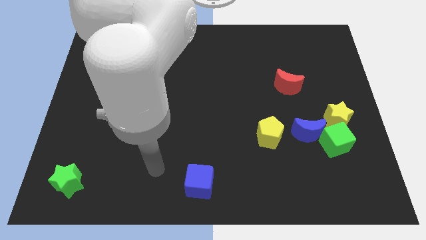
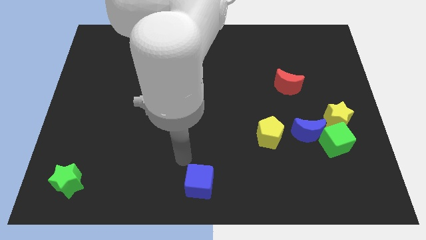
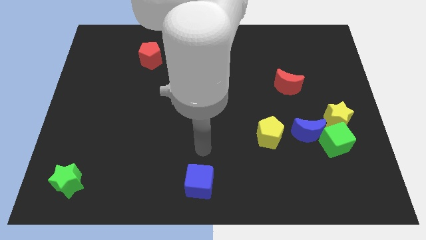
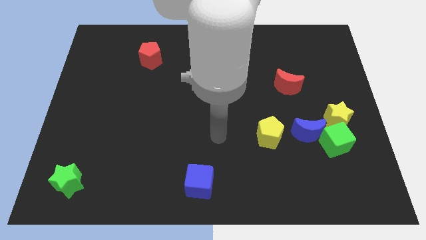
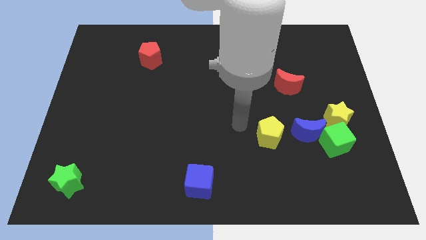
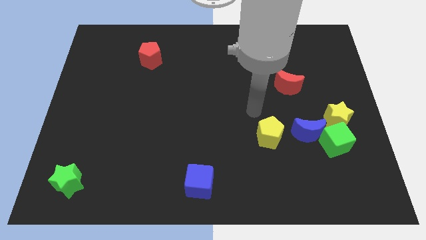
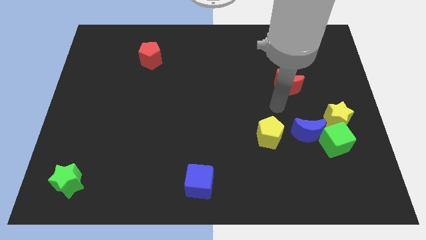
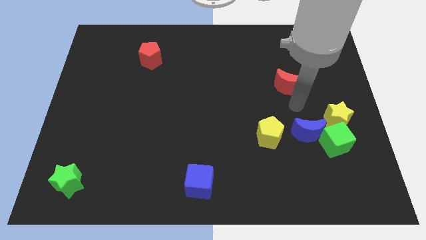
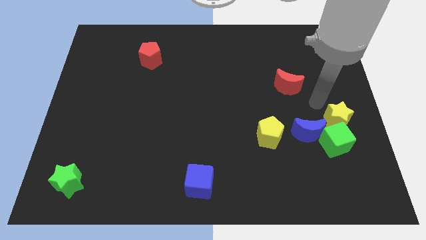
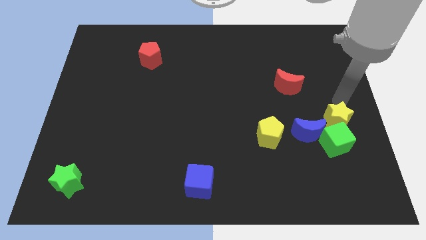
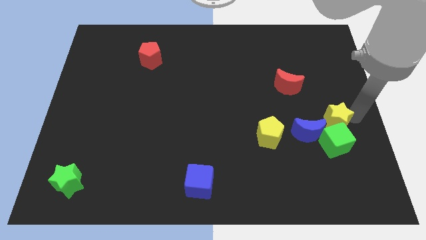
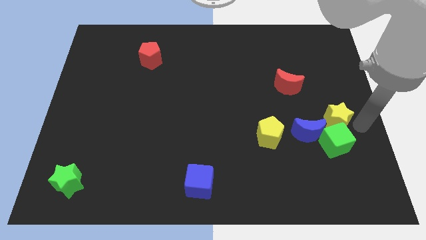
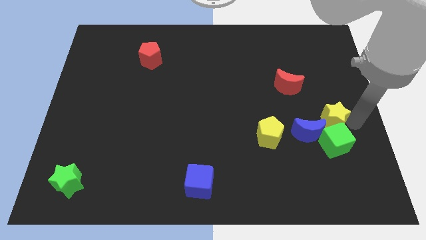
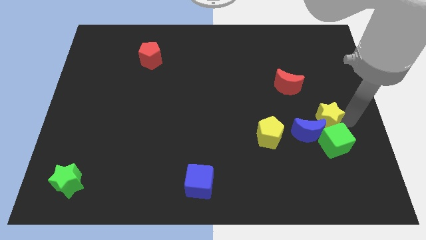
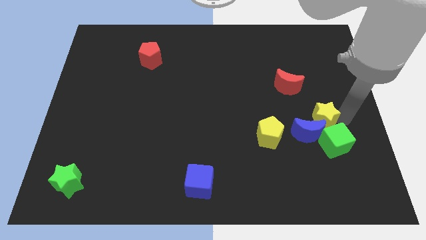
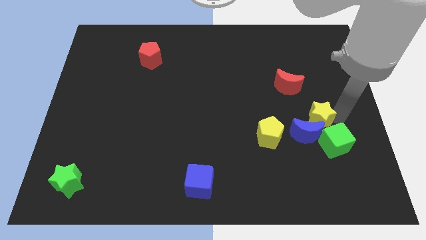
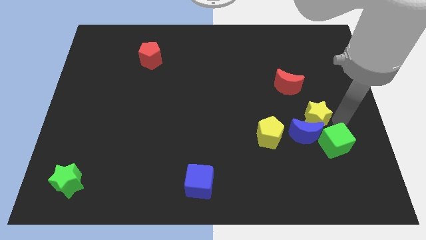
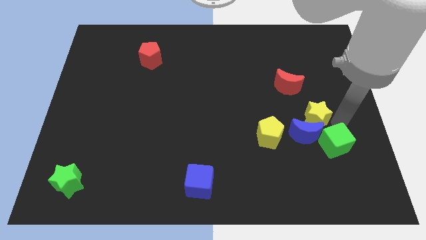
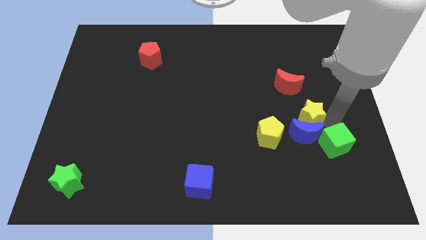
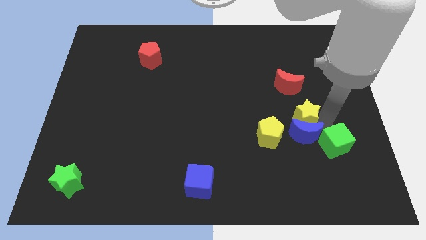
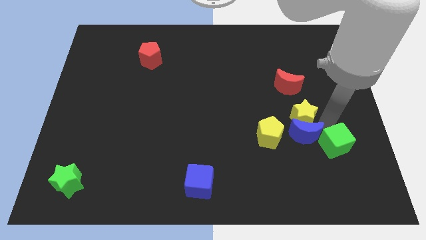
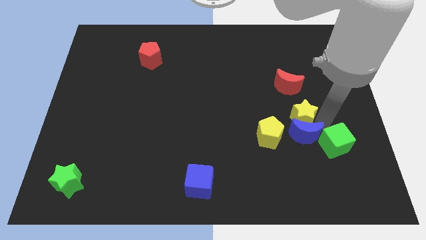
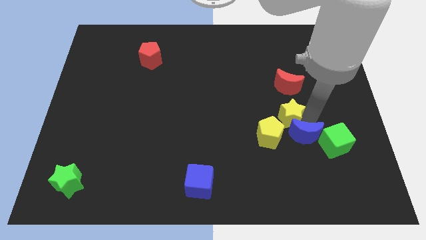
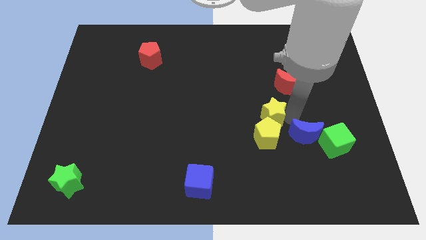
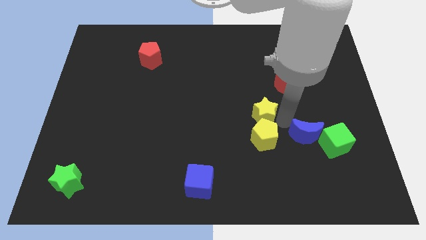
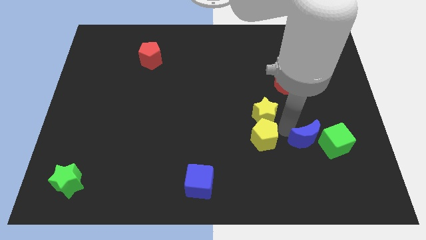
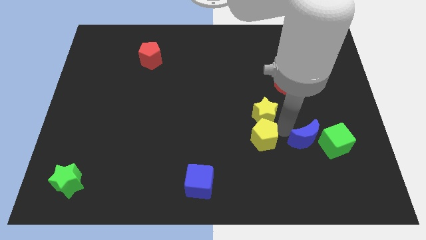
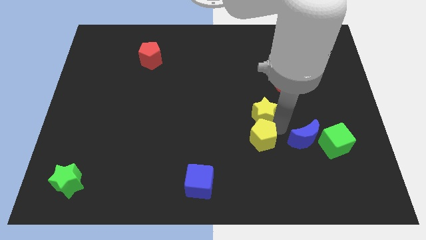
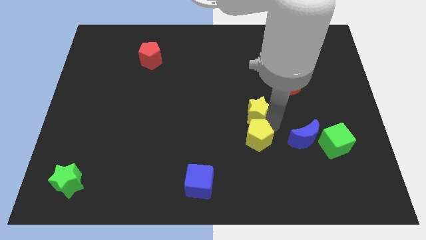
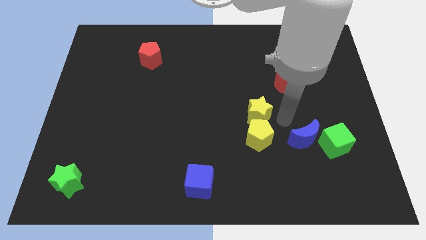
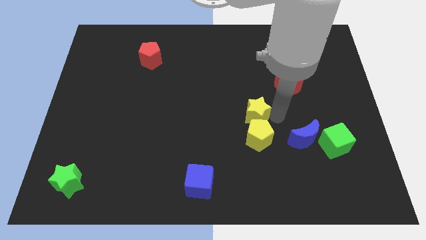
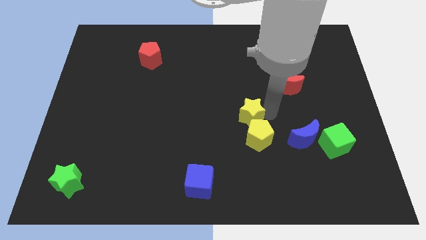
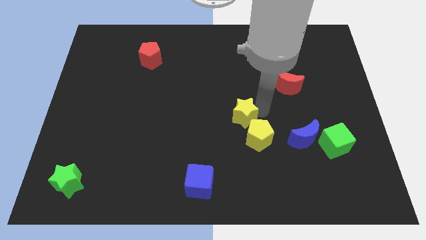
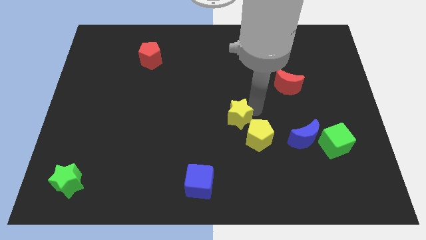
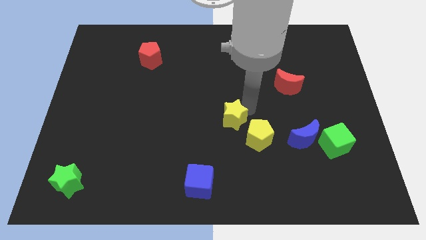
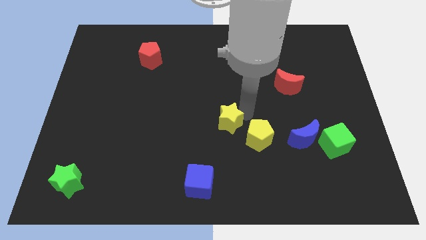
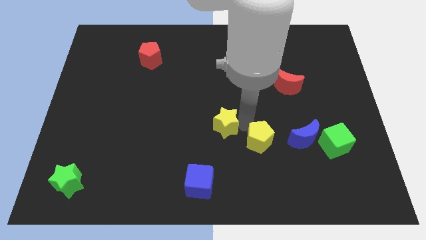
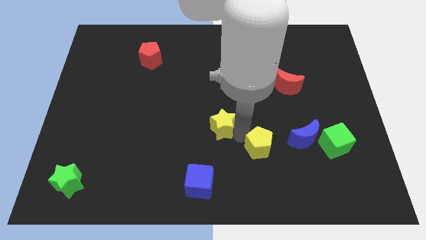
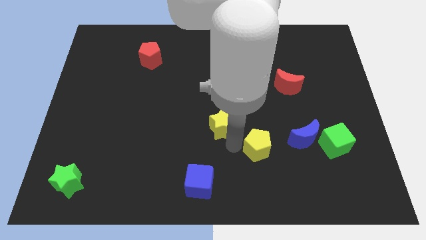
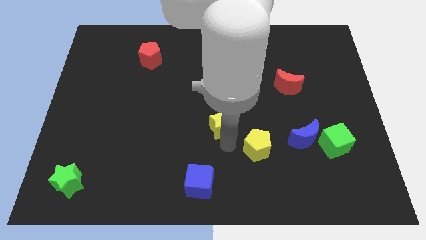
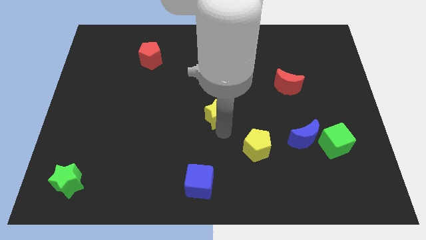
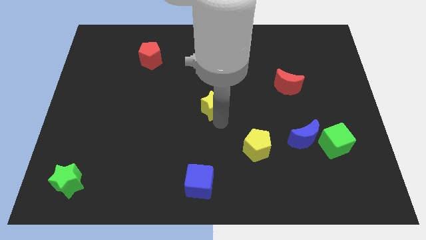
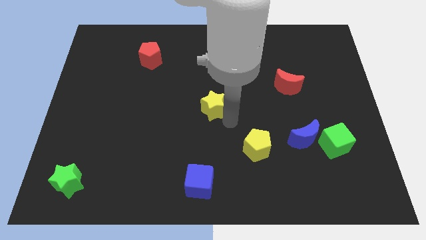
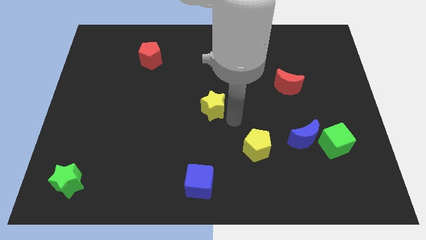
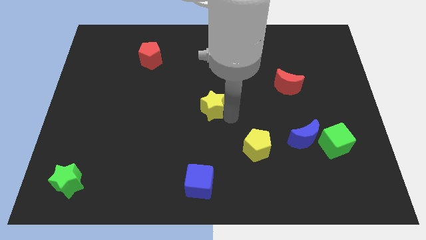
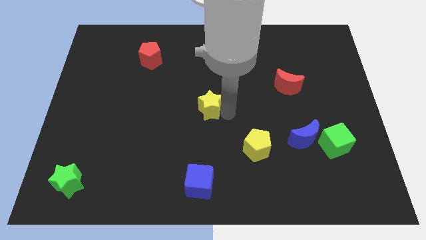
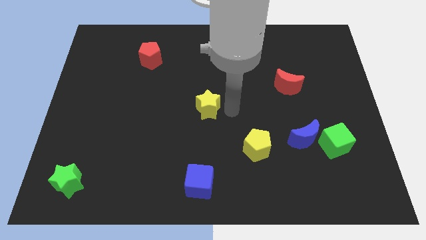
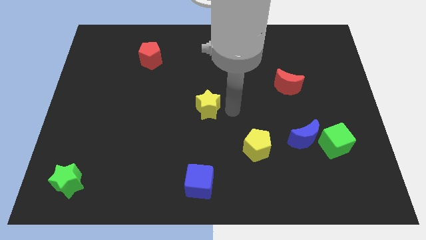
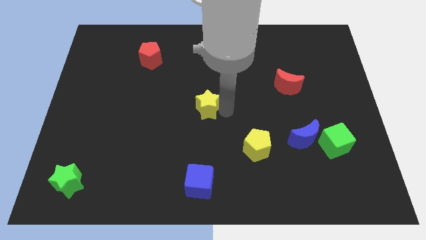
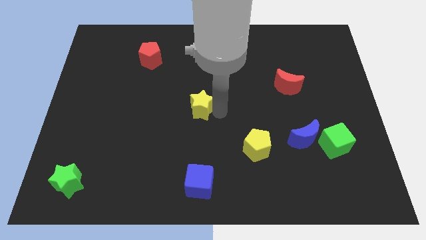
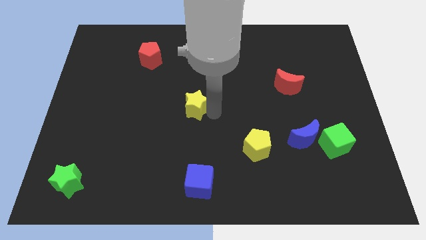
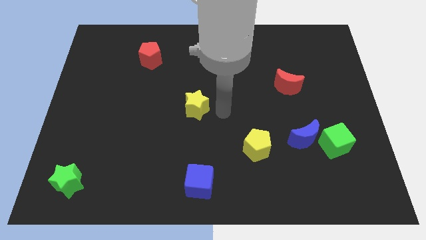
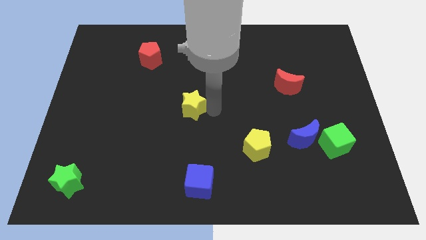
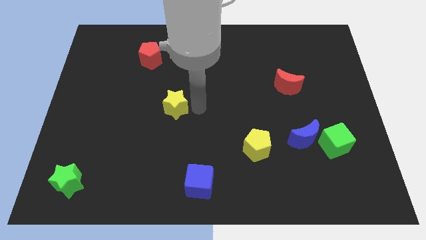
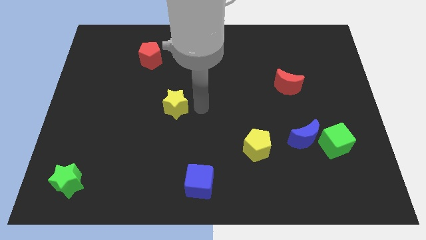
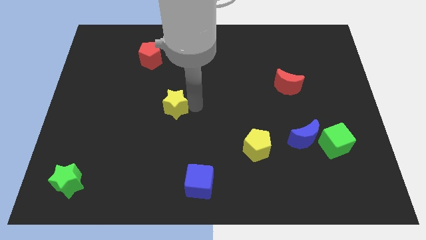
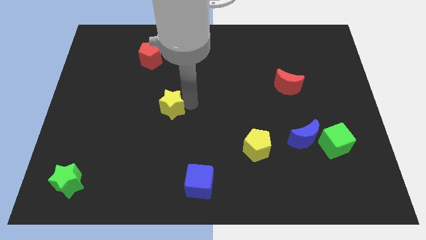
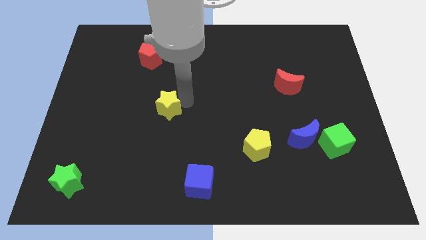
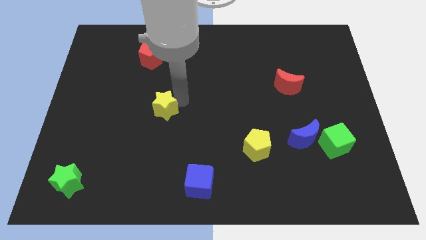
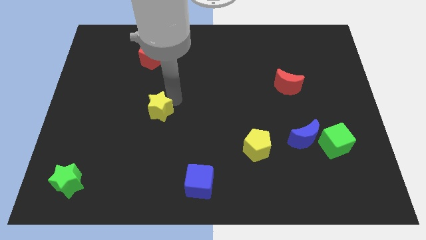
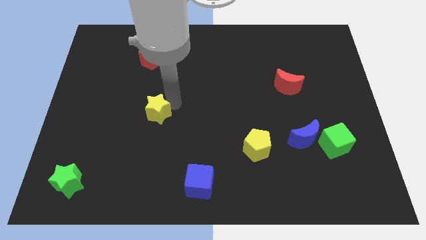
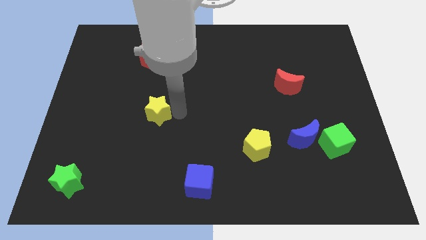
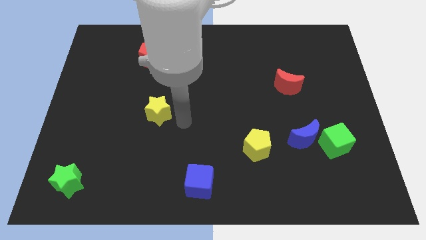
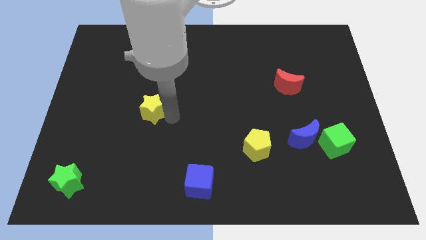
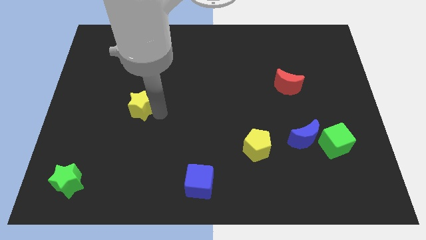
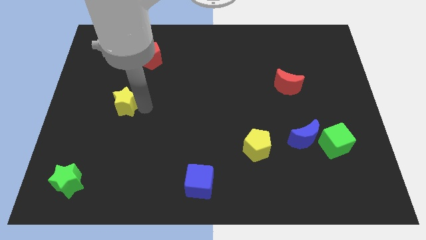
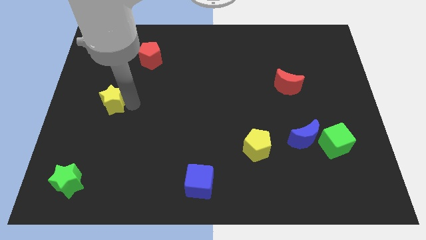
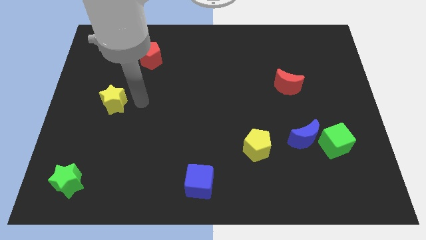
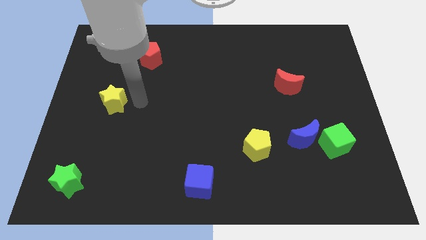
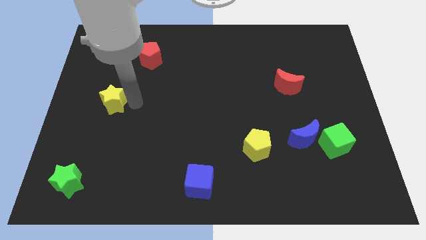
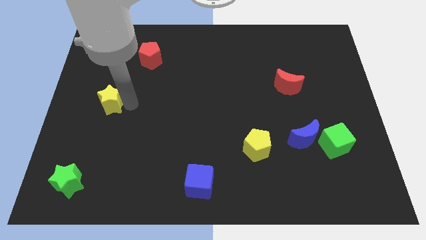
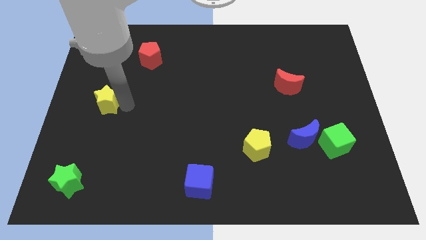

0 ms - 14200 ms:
push the yellow star to the left side of the board
